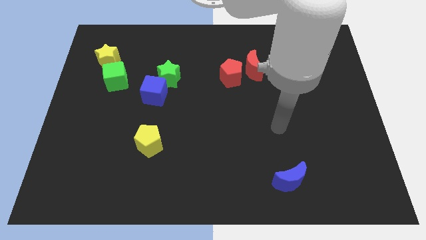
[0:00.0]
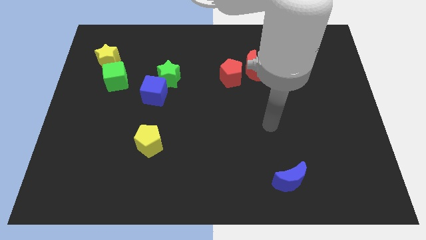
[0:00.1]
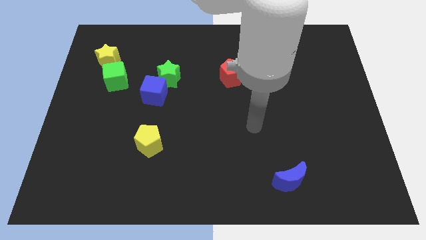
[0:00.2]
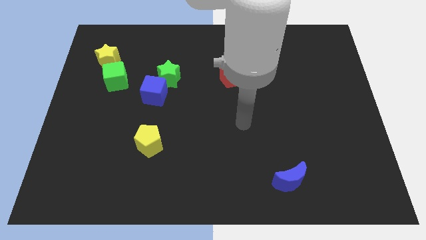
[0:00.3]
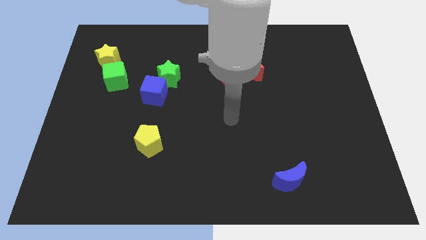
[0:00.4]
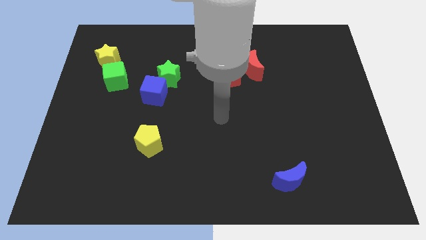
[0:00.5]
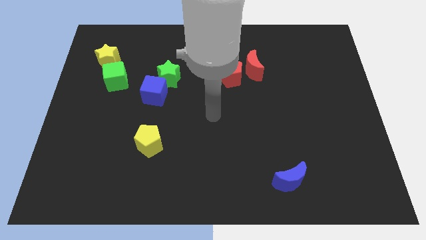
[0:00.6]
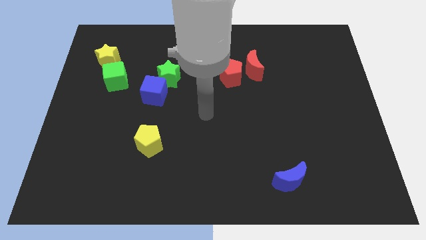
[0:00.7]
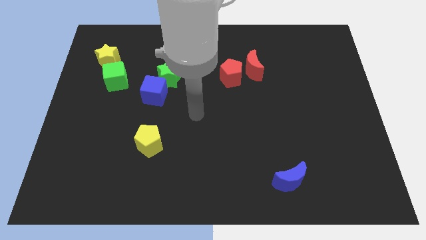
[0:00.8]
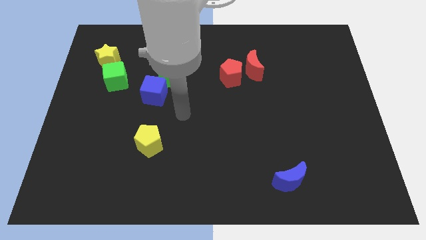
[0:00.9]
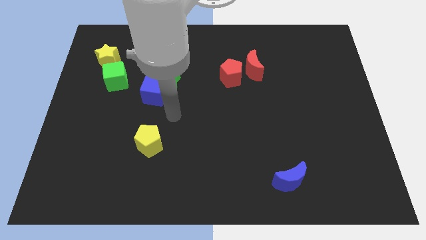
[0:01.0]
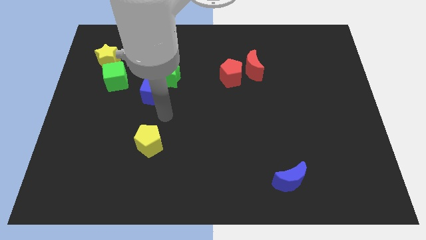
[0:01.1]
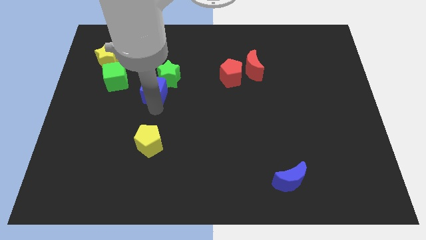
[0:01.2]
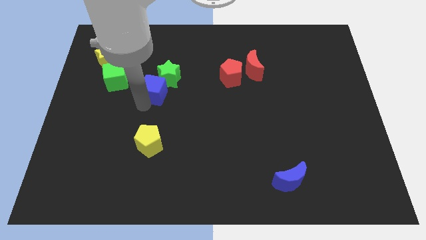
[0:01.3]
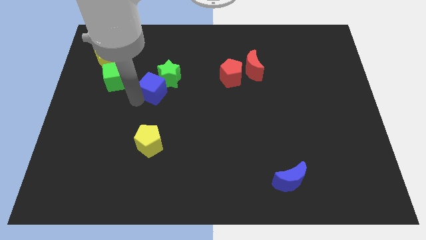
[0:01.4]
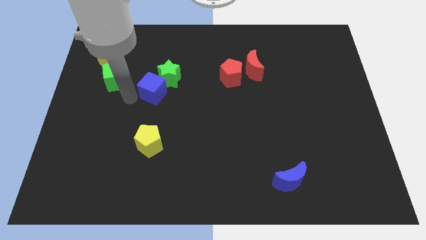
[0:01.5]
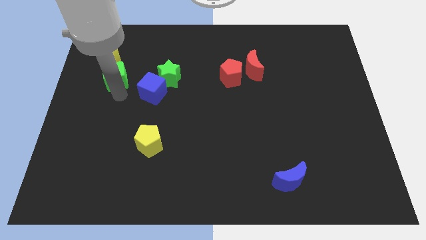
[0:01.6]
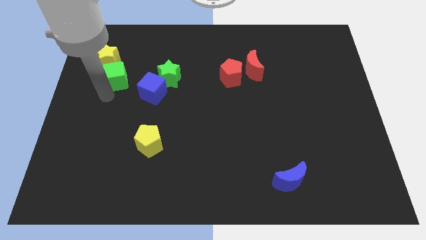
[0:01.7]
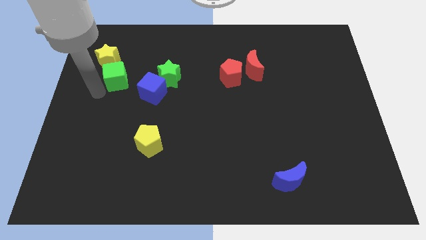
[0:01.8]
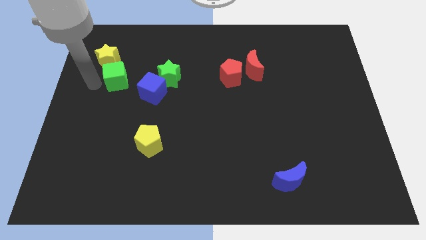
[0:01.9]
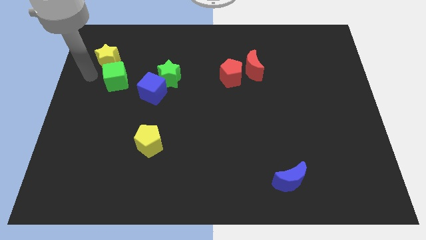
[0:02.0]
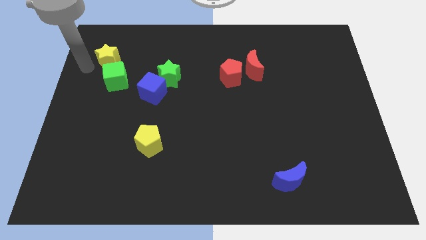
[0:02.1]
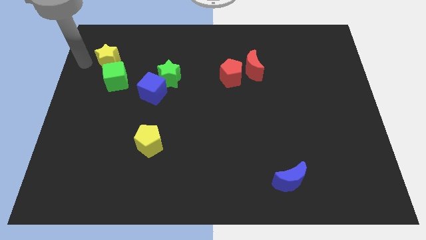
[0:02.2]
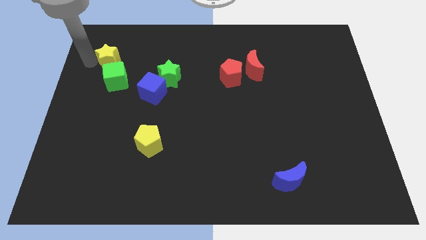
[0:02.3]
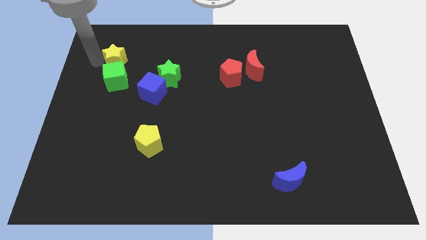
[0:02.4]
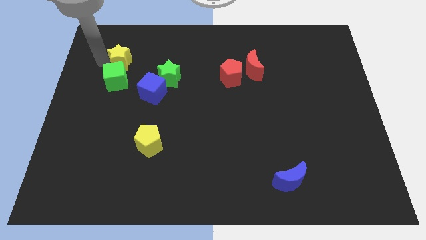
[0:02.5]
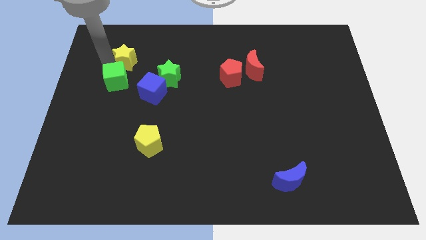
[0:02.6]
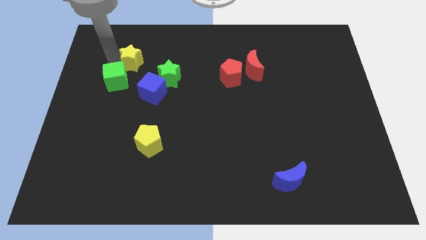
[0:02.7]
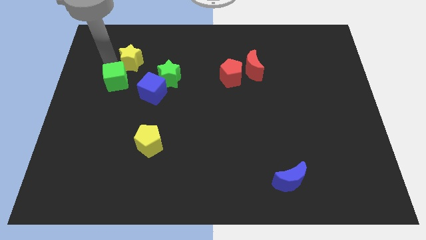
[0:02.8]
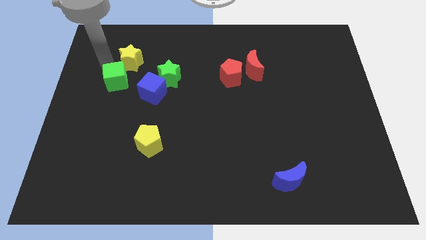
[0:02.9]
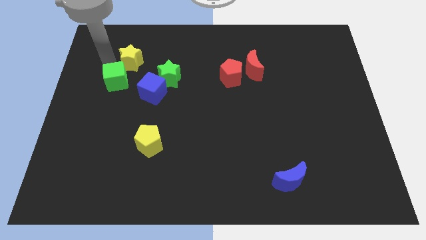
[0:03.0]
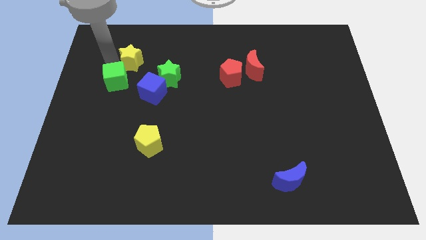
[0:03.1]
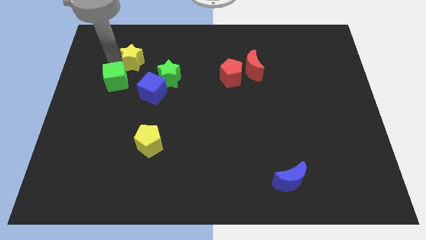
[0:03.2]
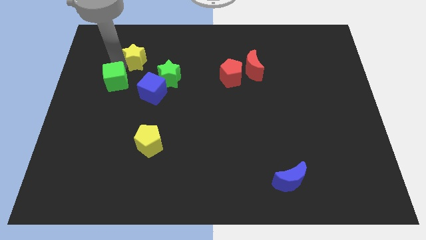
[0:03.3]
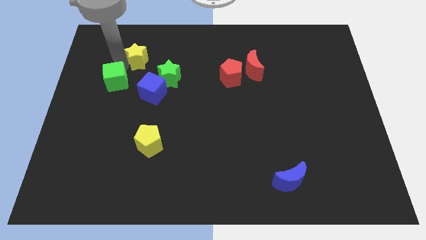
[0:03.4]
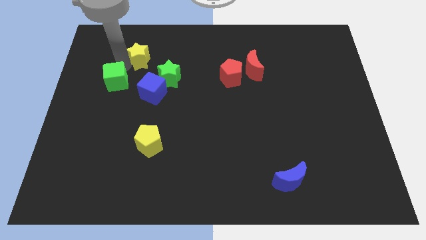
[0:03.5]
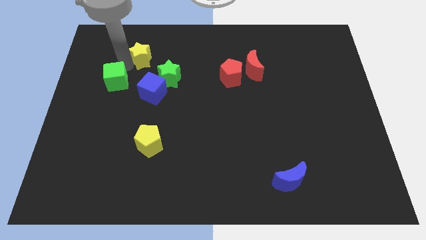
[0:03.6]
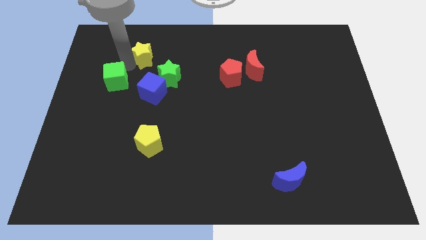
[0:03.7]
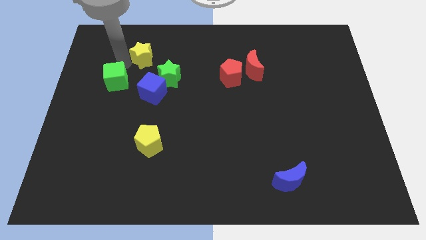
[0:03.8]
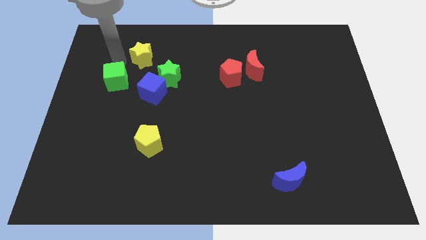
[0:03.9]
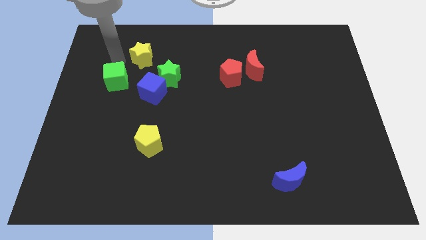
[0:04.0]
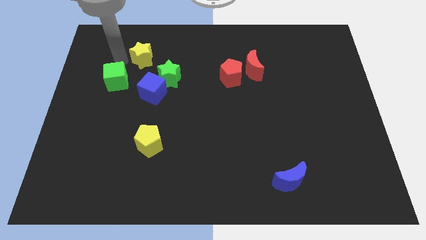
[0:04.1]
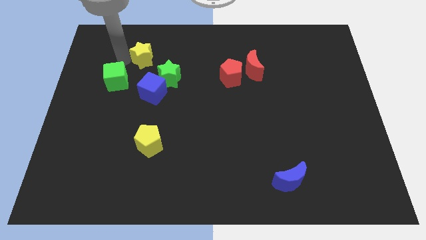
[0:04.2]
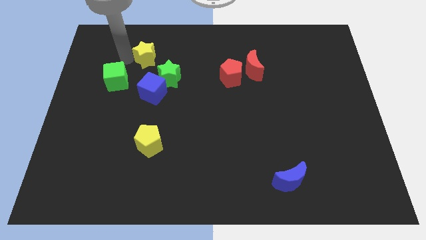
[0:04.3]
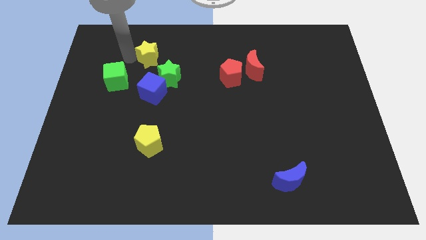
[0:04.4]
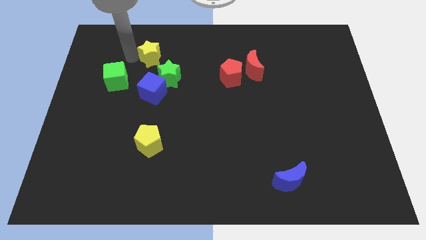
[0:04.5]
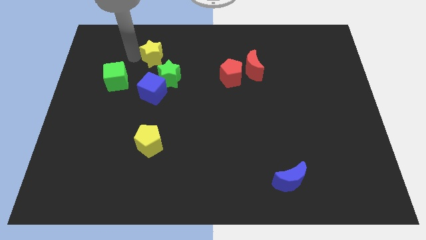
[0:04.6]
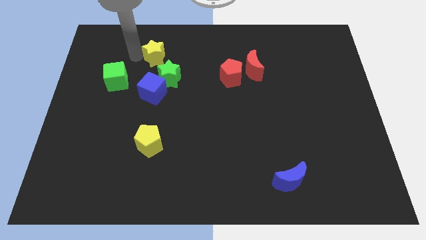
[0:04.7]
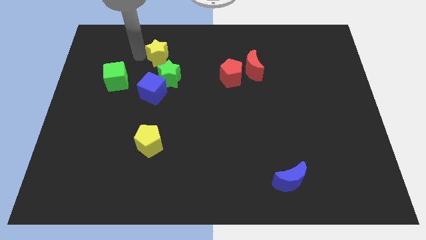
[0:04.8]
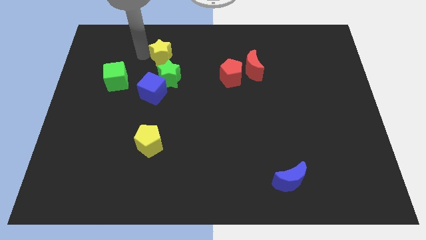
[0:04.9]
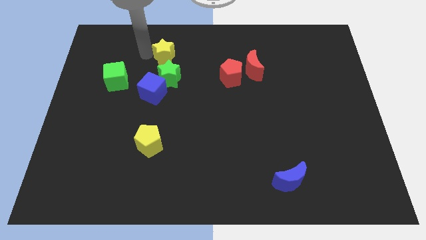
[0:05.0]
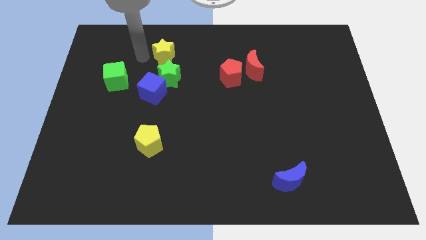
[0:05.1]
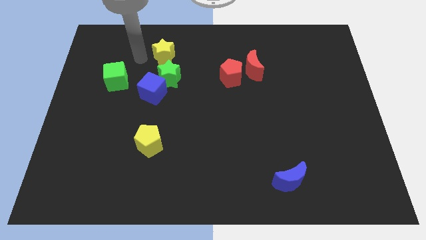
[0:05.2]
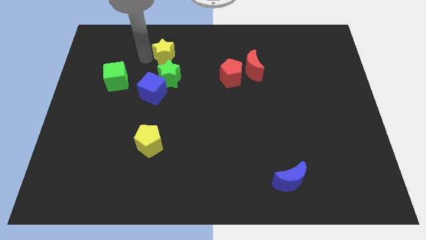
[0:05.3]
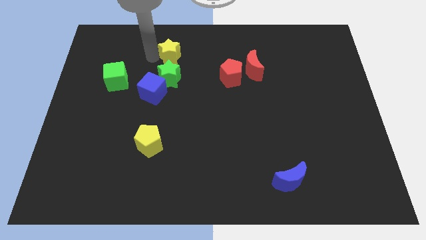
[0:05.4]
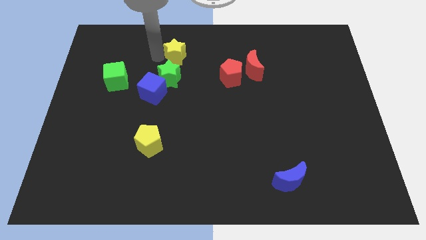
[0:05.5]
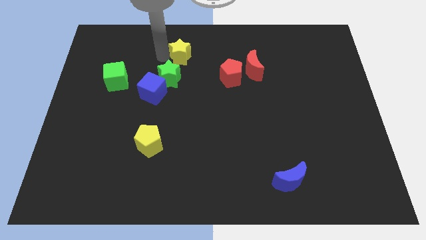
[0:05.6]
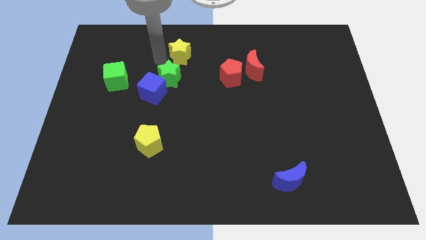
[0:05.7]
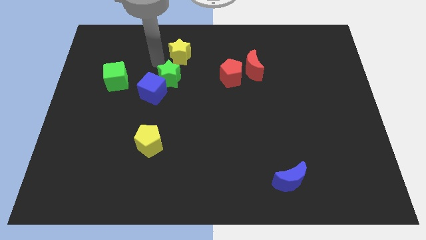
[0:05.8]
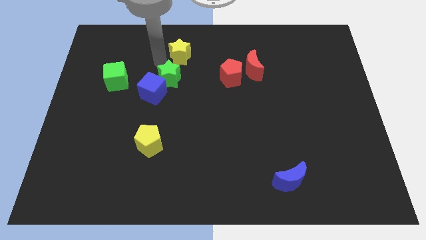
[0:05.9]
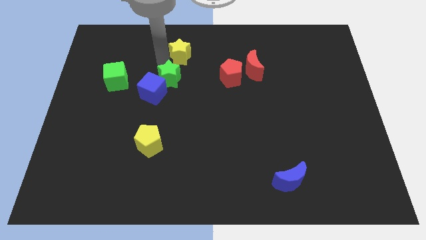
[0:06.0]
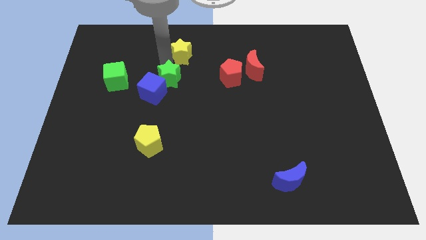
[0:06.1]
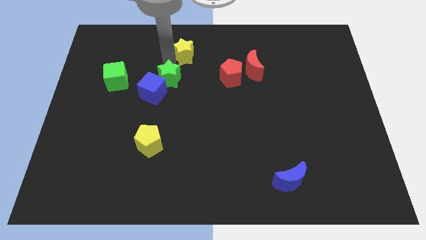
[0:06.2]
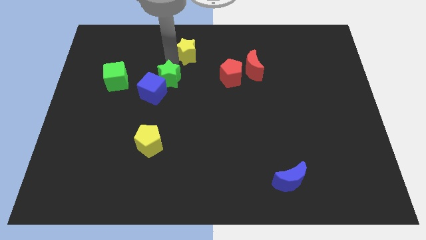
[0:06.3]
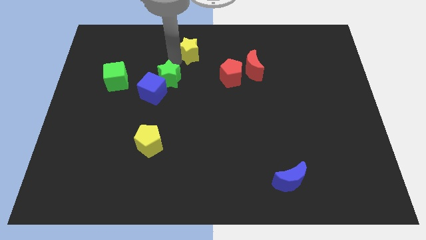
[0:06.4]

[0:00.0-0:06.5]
move the yellow star to the top
